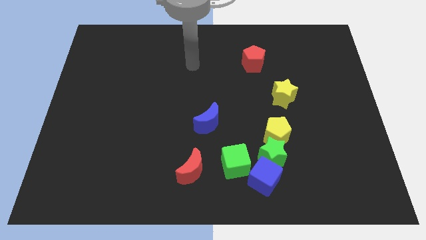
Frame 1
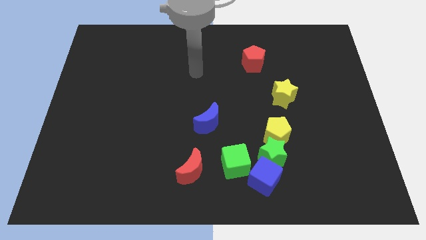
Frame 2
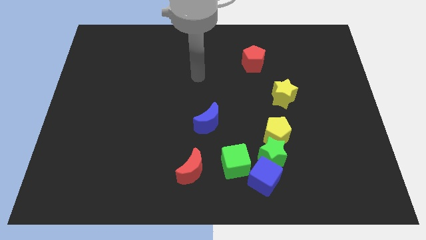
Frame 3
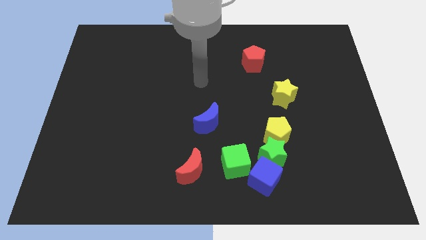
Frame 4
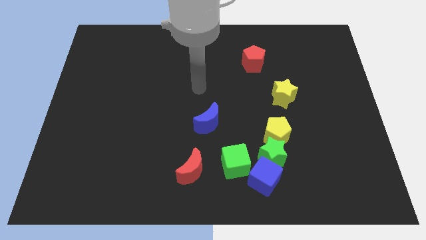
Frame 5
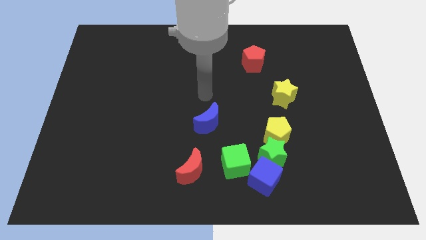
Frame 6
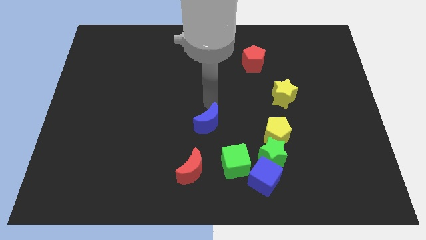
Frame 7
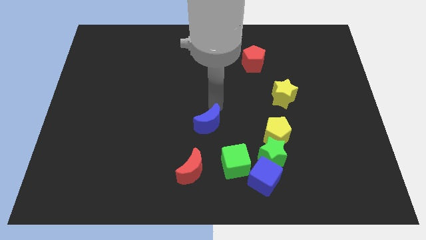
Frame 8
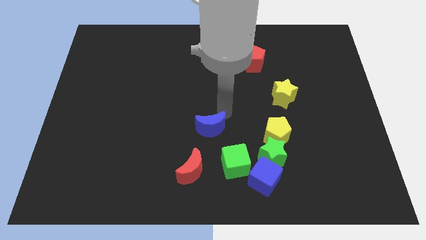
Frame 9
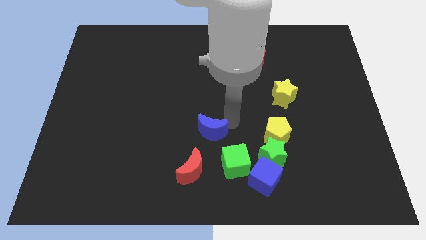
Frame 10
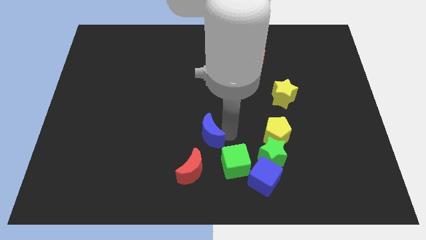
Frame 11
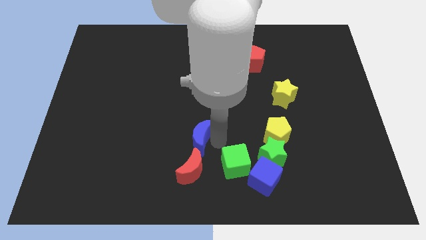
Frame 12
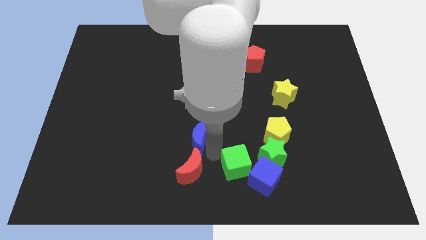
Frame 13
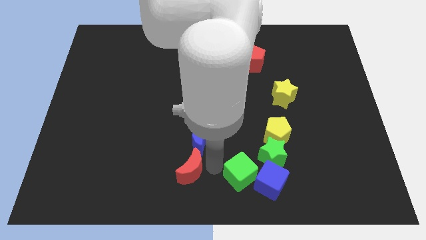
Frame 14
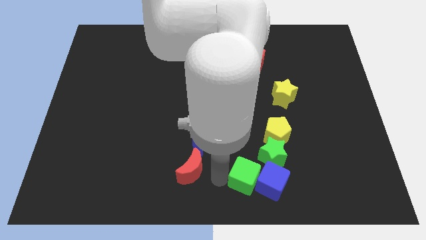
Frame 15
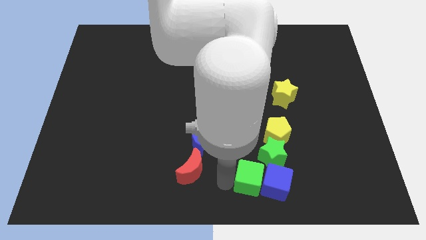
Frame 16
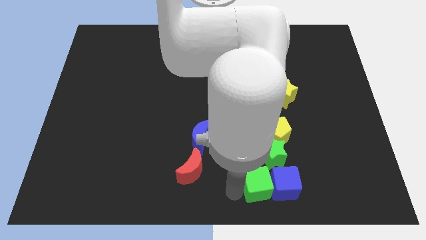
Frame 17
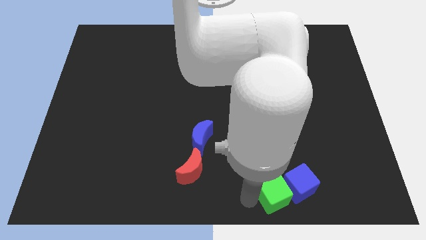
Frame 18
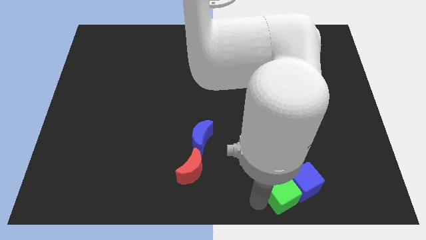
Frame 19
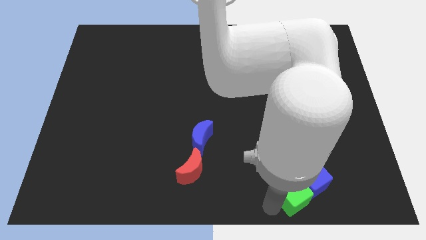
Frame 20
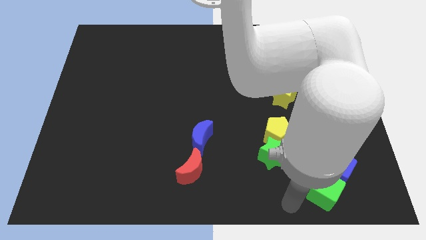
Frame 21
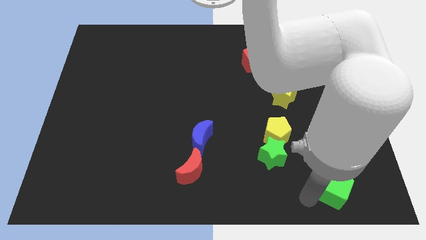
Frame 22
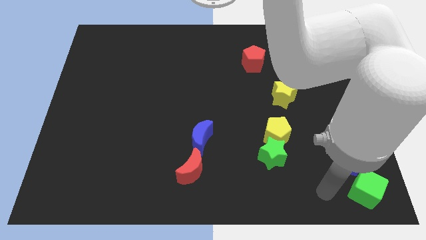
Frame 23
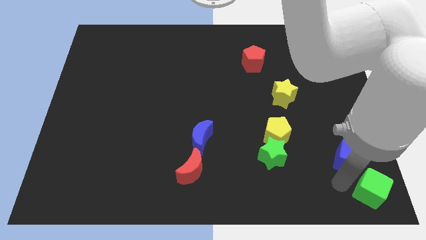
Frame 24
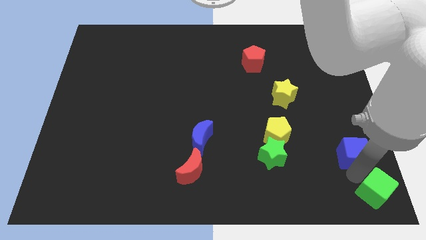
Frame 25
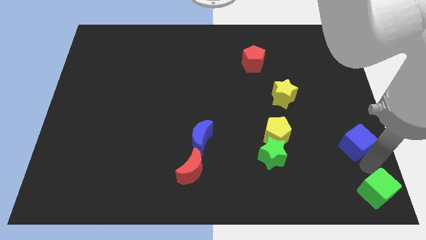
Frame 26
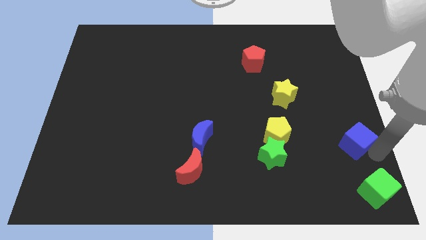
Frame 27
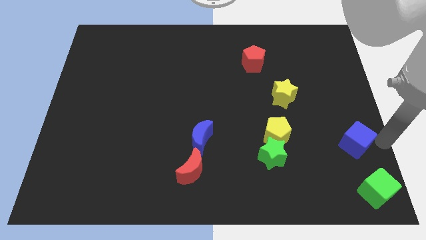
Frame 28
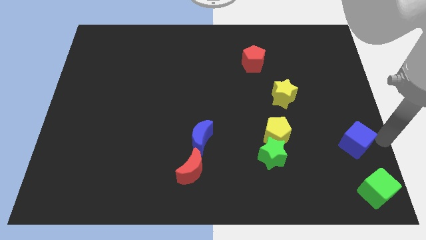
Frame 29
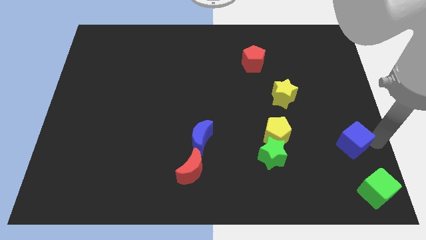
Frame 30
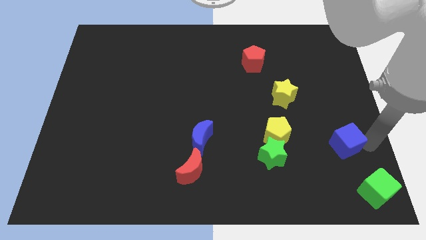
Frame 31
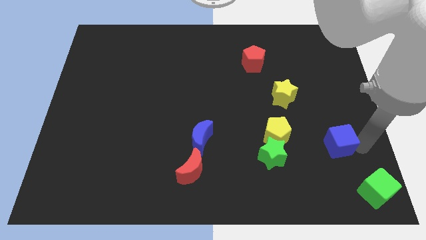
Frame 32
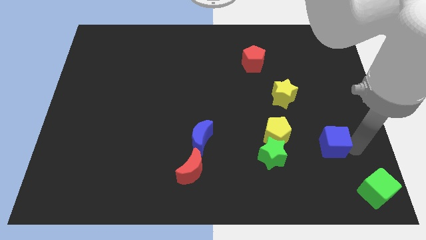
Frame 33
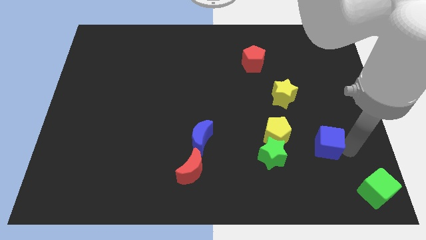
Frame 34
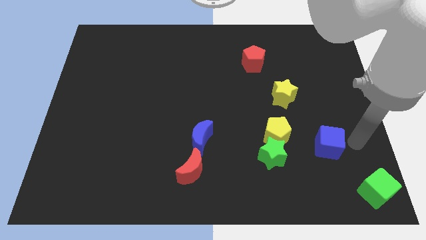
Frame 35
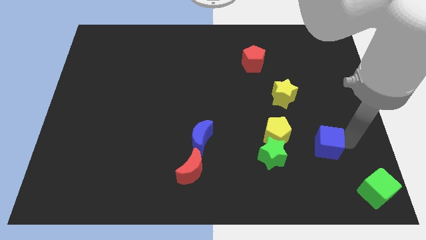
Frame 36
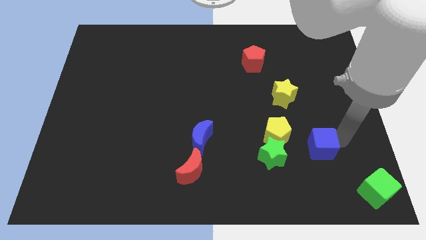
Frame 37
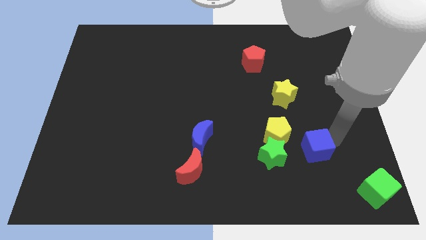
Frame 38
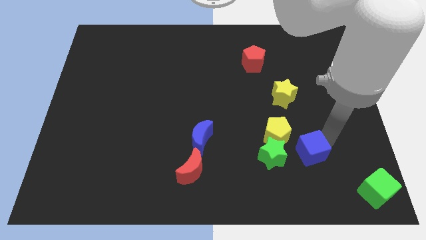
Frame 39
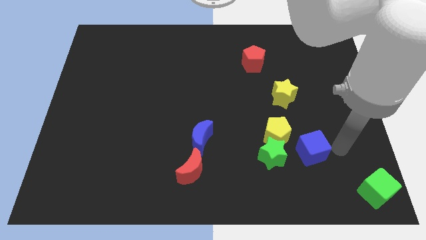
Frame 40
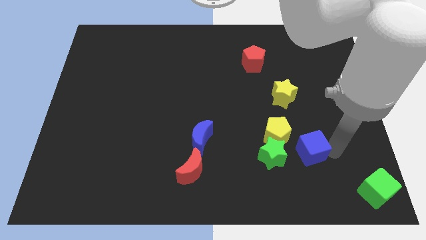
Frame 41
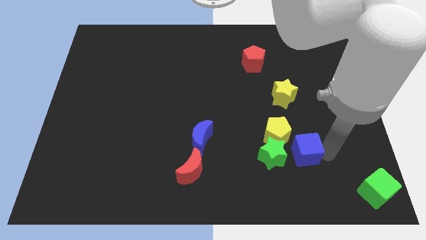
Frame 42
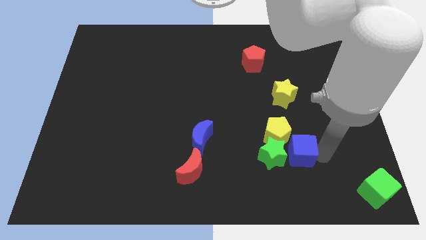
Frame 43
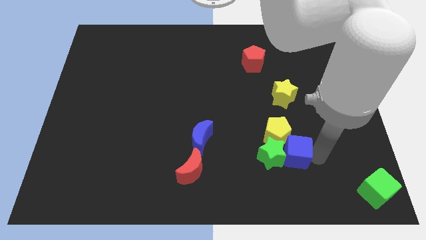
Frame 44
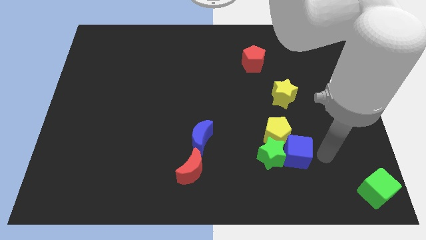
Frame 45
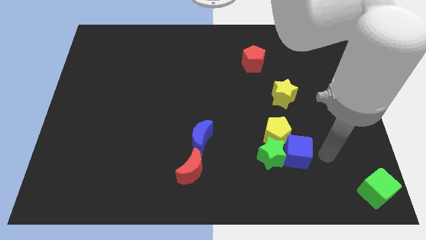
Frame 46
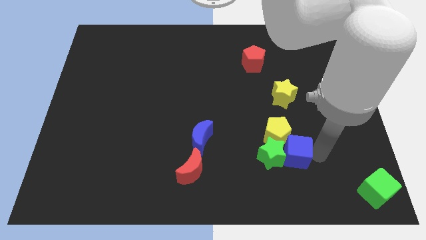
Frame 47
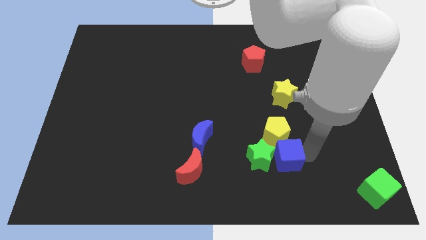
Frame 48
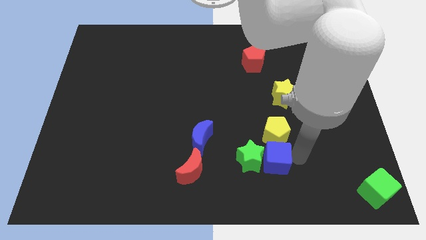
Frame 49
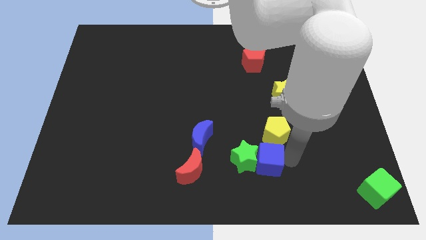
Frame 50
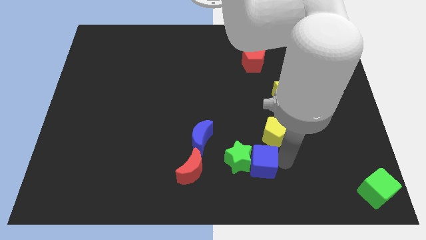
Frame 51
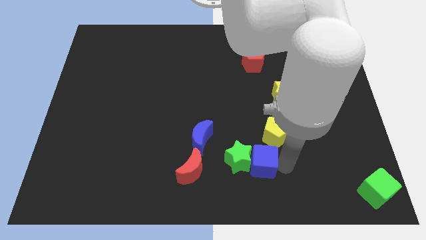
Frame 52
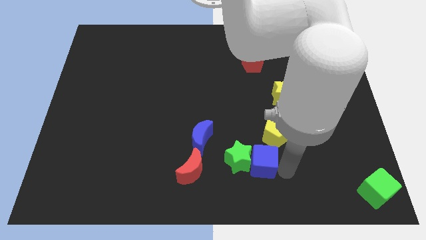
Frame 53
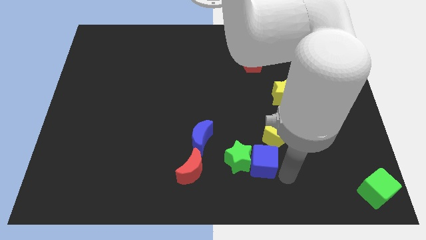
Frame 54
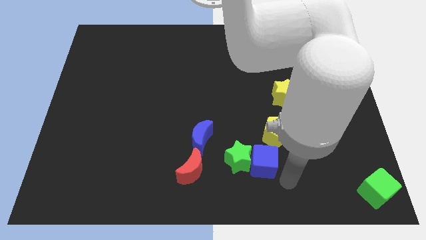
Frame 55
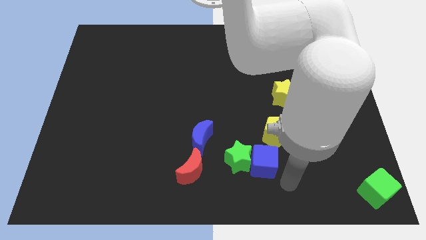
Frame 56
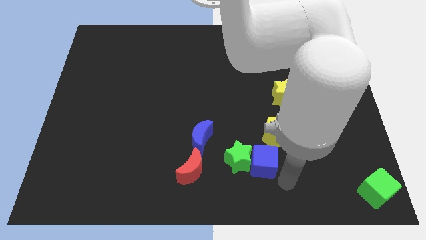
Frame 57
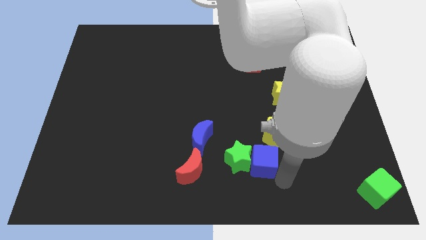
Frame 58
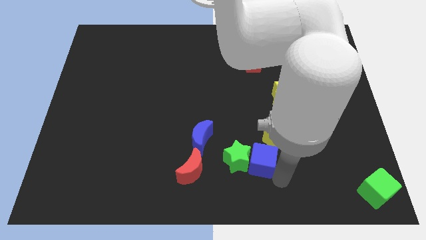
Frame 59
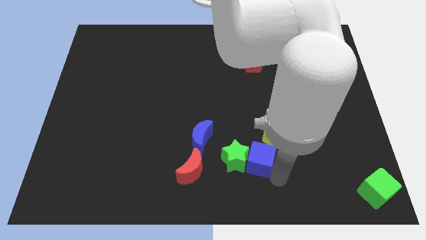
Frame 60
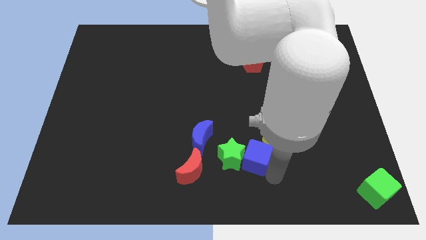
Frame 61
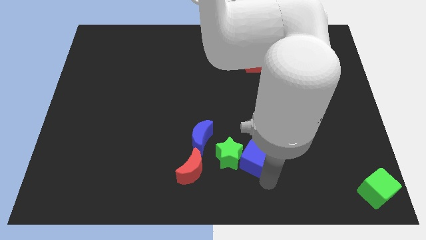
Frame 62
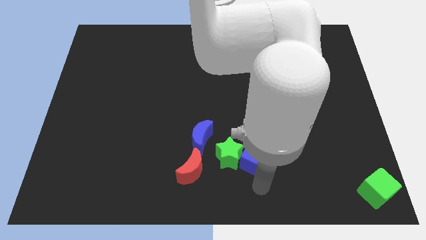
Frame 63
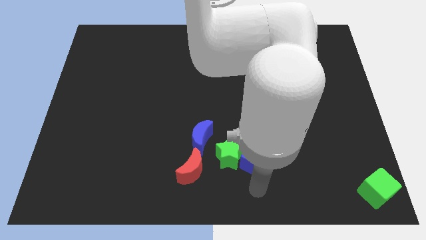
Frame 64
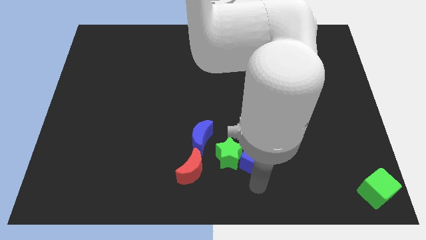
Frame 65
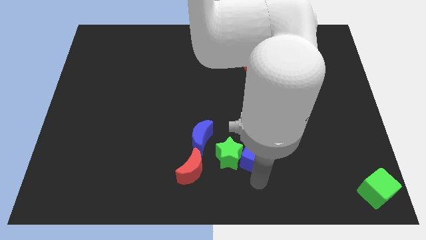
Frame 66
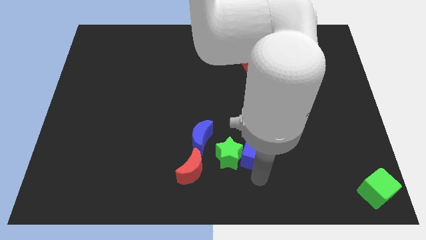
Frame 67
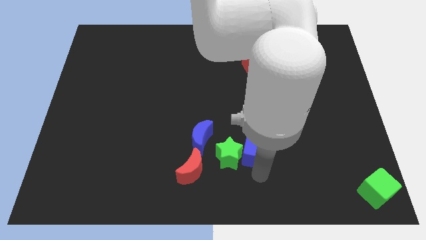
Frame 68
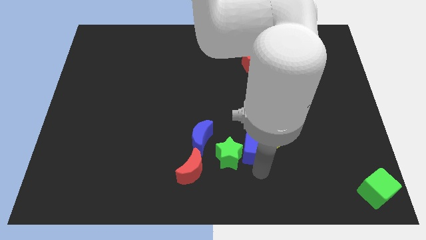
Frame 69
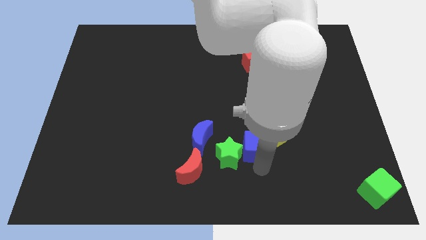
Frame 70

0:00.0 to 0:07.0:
slightly move the blue cube up

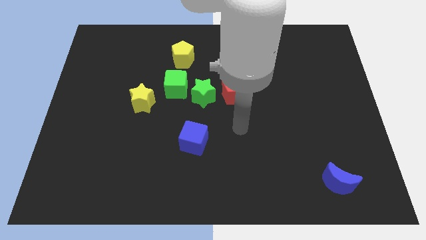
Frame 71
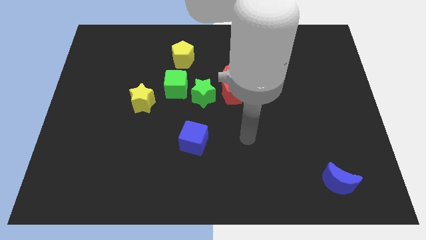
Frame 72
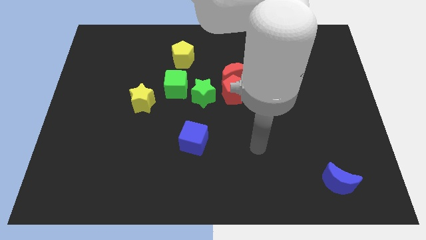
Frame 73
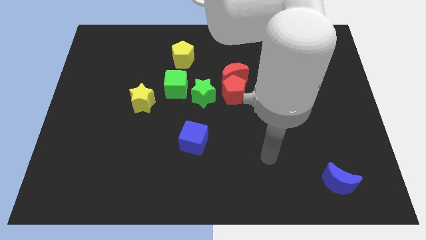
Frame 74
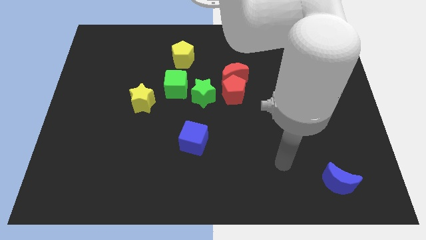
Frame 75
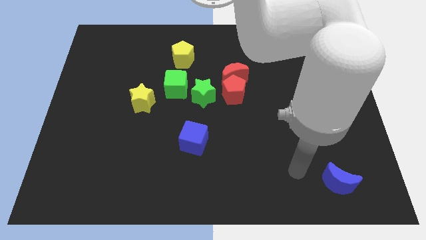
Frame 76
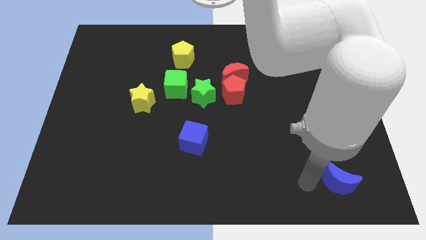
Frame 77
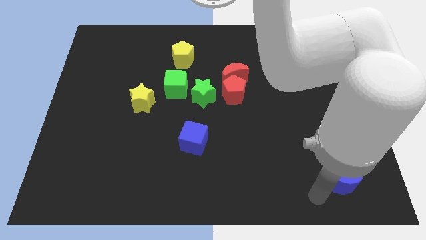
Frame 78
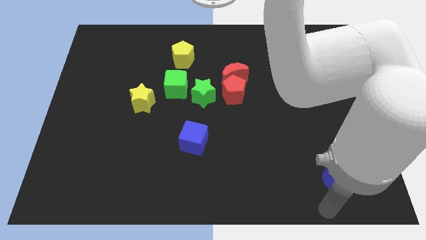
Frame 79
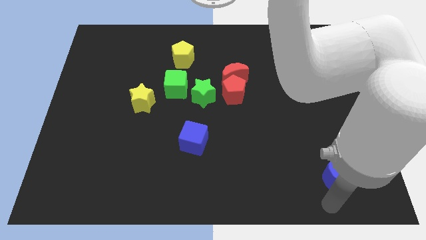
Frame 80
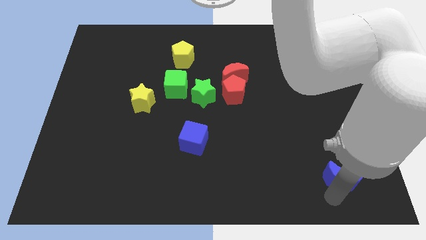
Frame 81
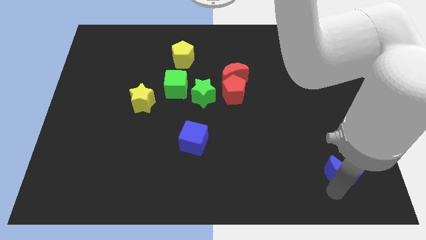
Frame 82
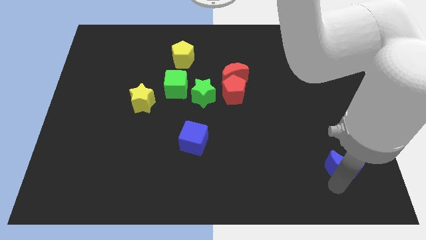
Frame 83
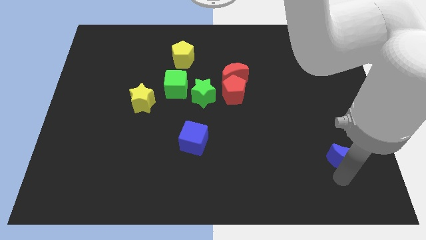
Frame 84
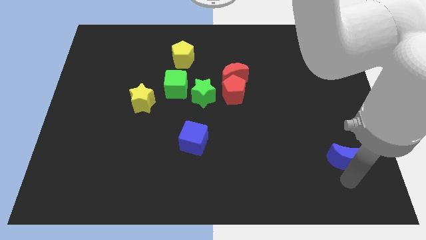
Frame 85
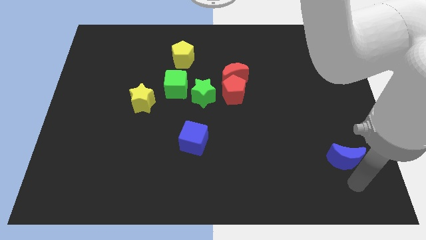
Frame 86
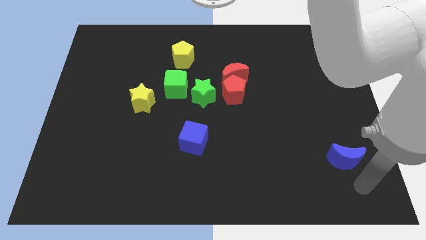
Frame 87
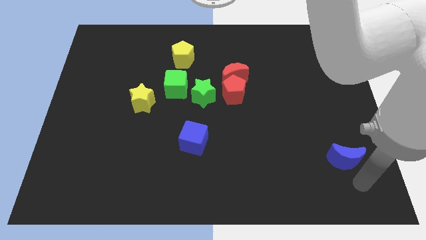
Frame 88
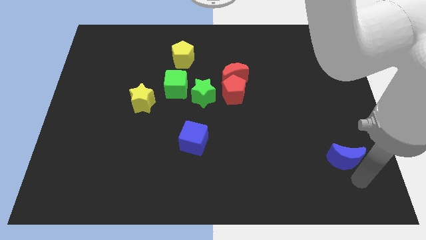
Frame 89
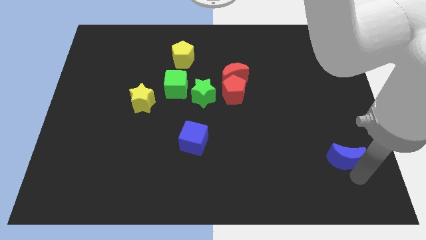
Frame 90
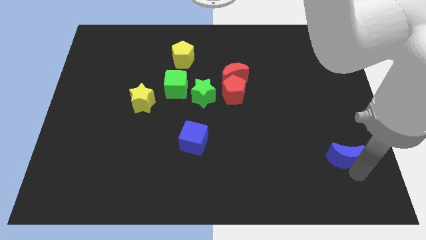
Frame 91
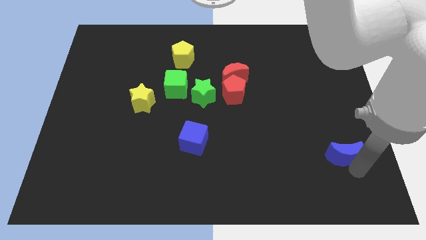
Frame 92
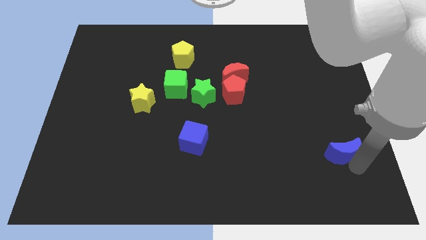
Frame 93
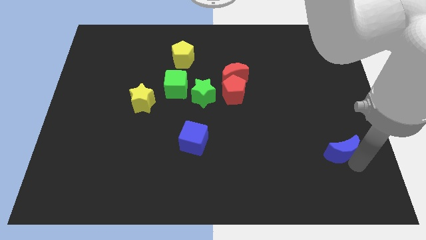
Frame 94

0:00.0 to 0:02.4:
push the blue moon upwards a little
